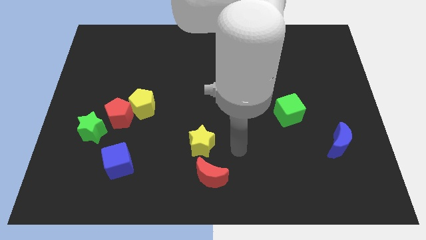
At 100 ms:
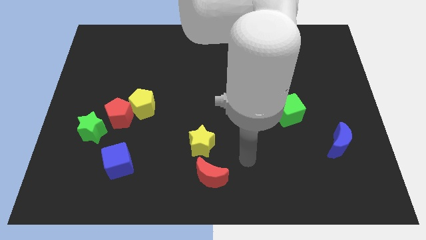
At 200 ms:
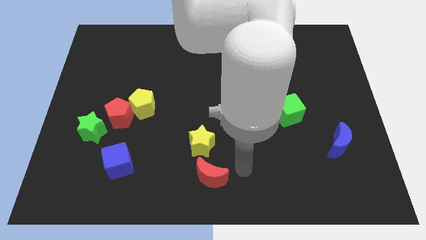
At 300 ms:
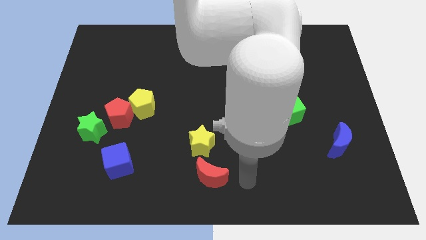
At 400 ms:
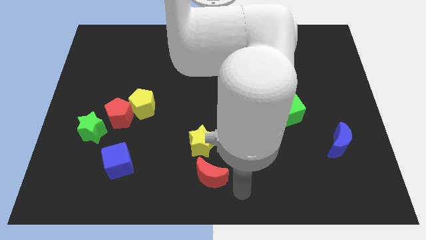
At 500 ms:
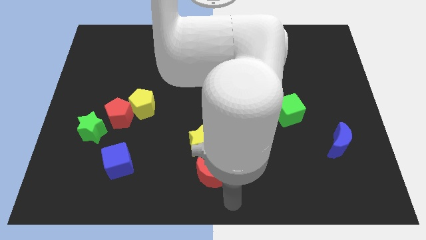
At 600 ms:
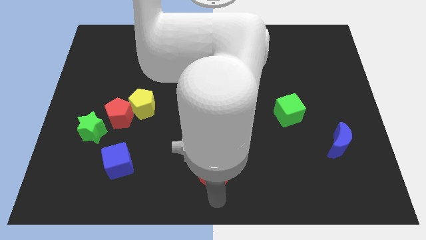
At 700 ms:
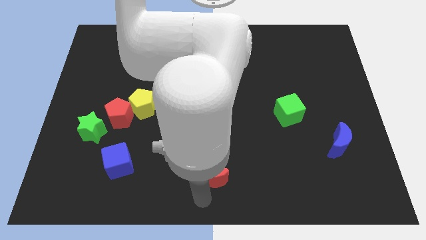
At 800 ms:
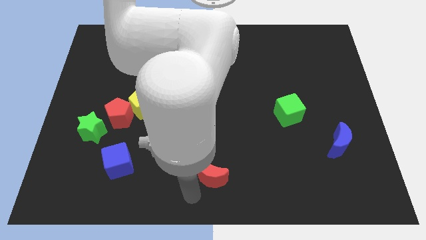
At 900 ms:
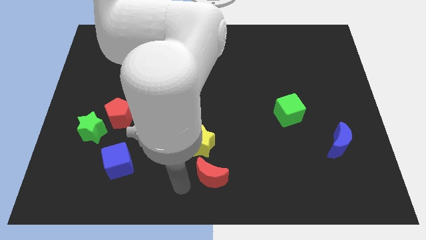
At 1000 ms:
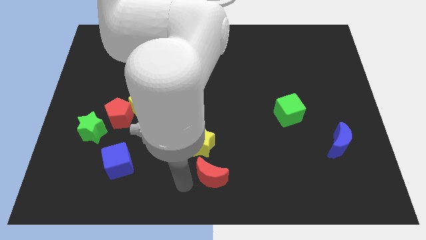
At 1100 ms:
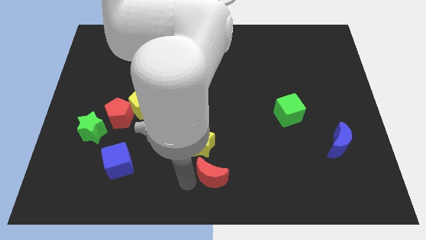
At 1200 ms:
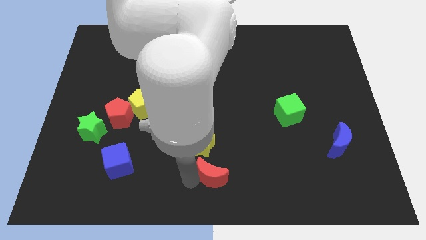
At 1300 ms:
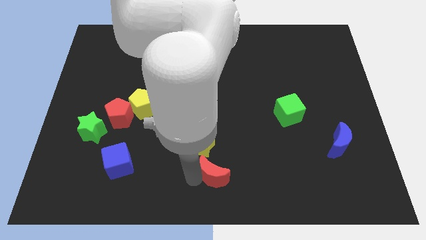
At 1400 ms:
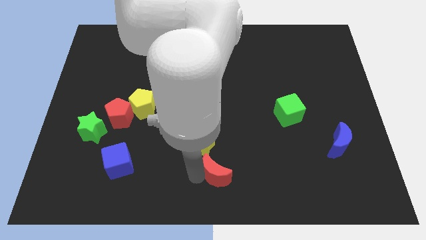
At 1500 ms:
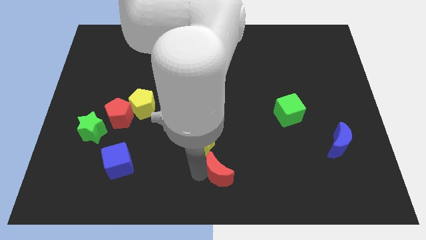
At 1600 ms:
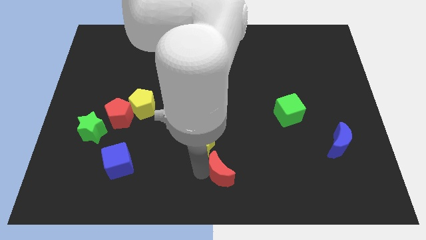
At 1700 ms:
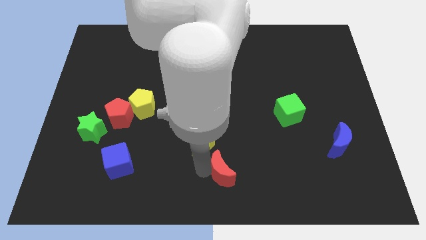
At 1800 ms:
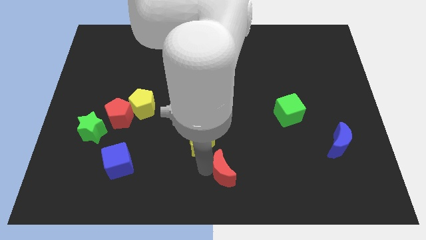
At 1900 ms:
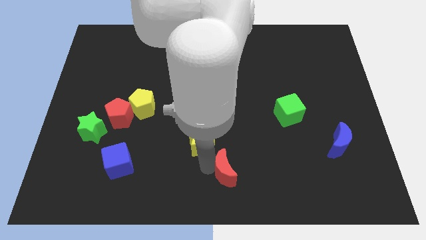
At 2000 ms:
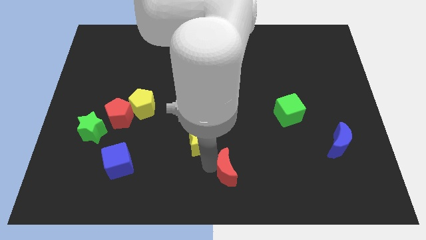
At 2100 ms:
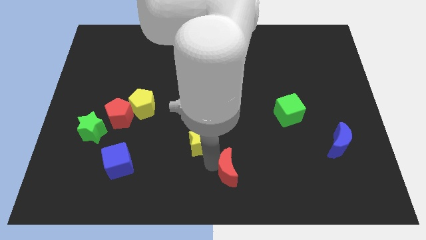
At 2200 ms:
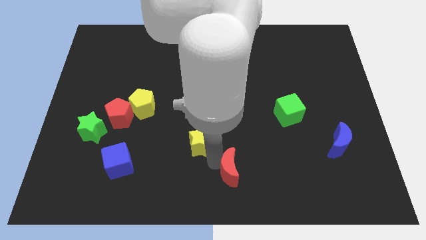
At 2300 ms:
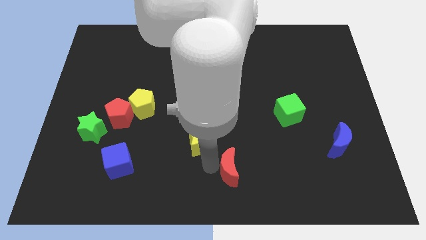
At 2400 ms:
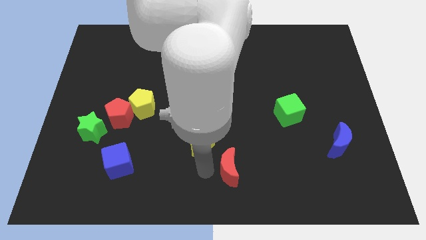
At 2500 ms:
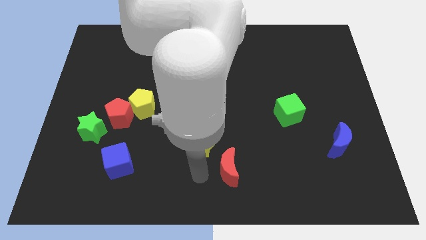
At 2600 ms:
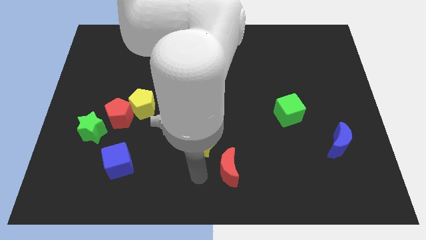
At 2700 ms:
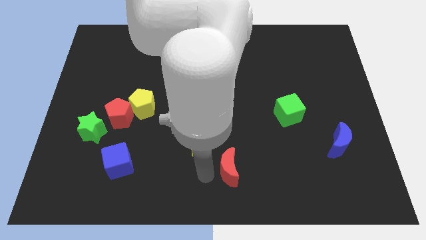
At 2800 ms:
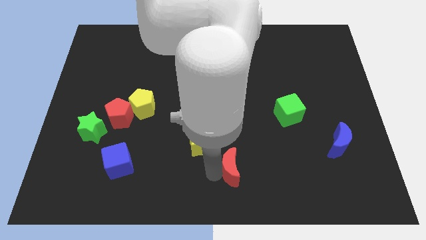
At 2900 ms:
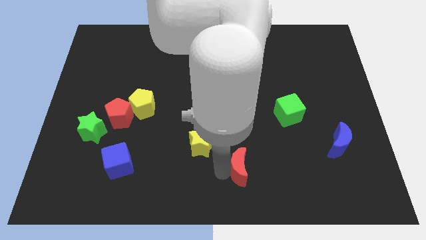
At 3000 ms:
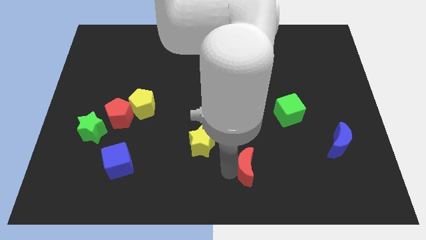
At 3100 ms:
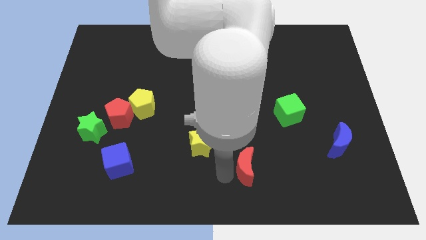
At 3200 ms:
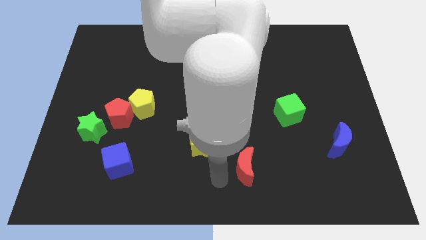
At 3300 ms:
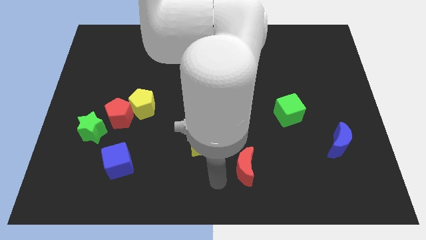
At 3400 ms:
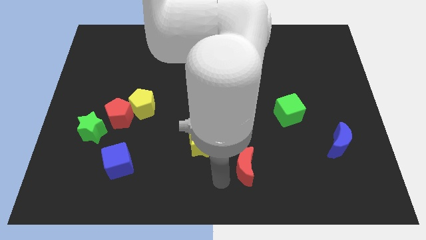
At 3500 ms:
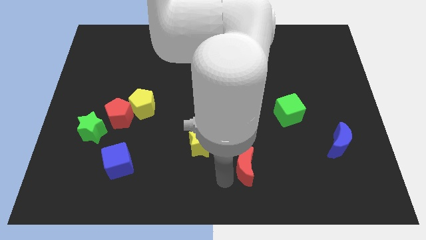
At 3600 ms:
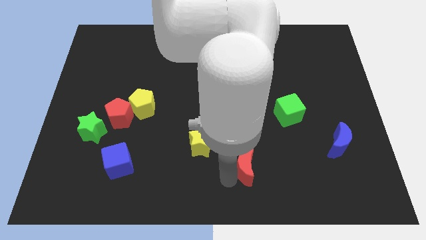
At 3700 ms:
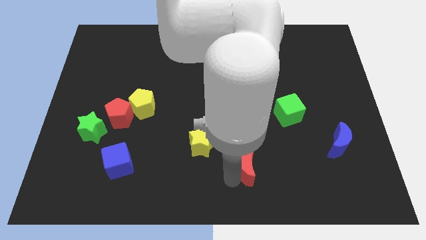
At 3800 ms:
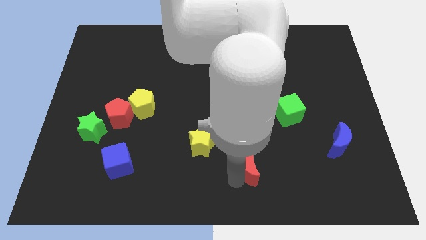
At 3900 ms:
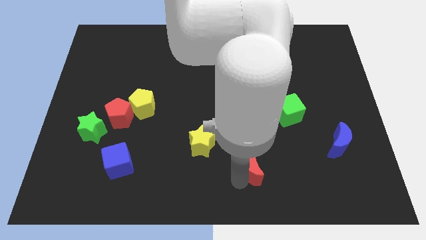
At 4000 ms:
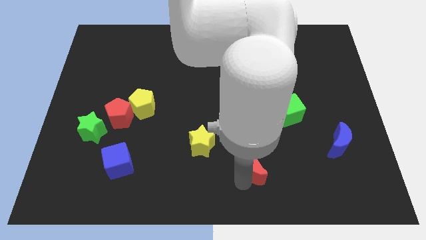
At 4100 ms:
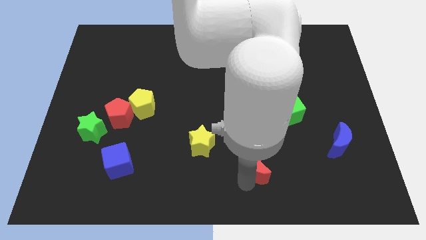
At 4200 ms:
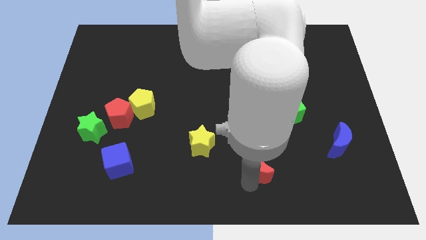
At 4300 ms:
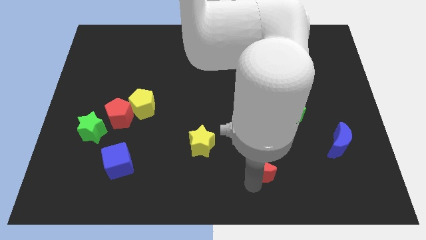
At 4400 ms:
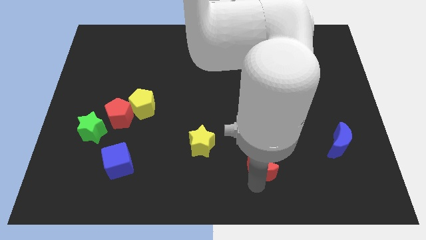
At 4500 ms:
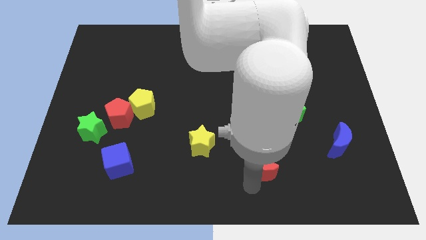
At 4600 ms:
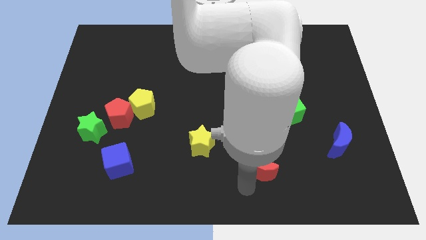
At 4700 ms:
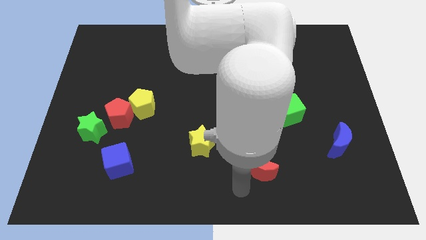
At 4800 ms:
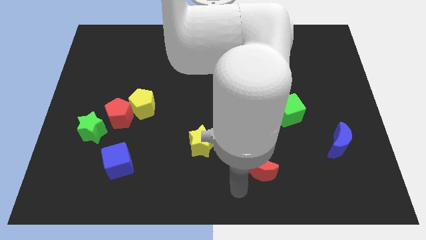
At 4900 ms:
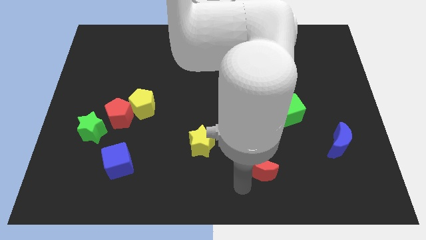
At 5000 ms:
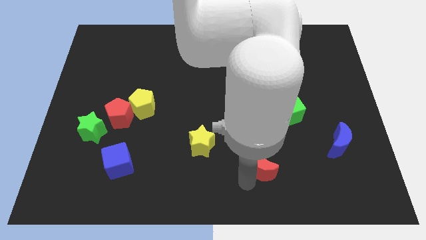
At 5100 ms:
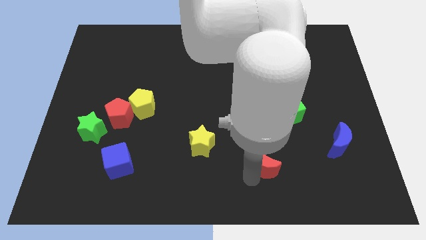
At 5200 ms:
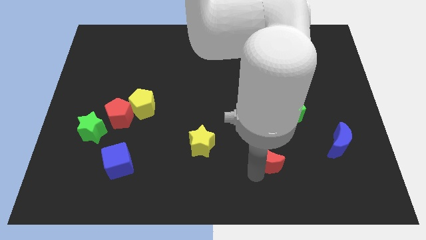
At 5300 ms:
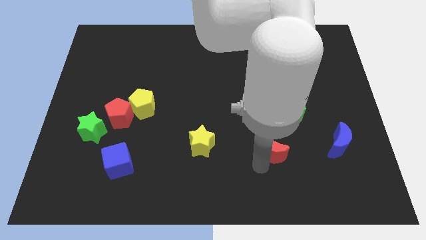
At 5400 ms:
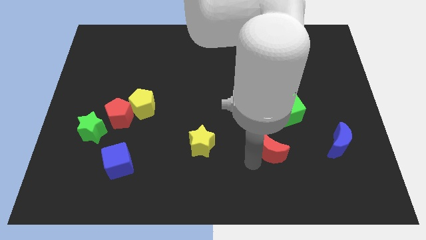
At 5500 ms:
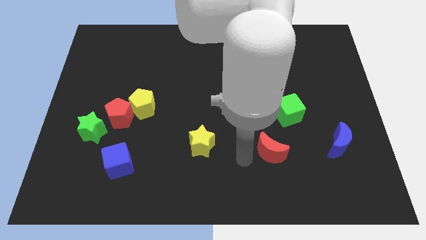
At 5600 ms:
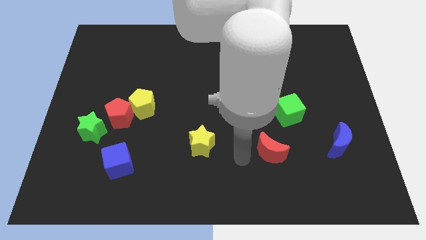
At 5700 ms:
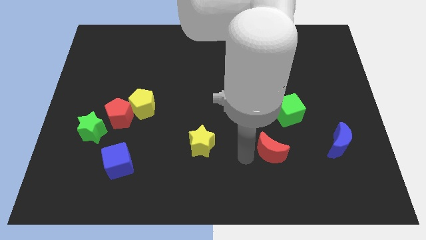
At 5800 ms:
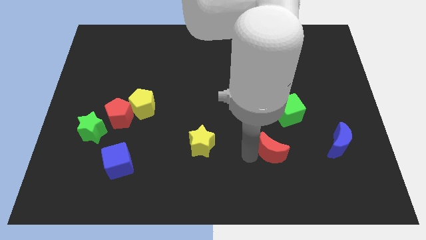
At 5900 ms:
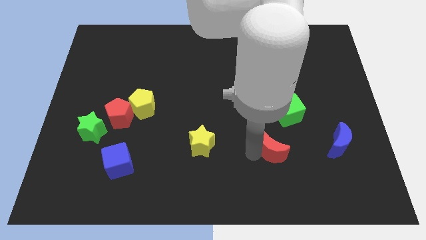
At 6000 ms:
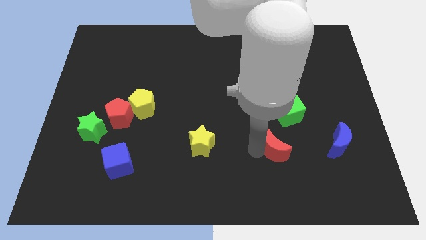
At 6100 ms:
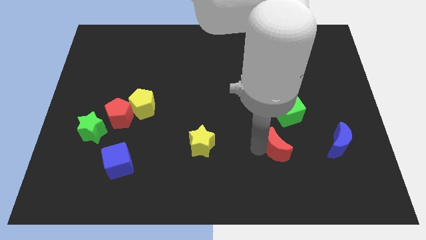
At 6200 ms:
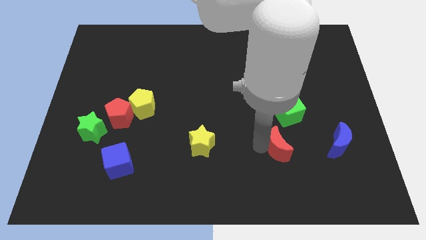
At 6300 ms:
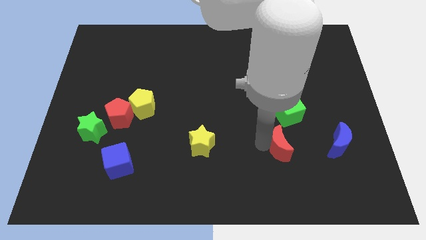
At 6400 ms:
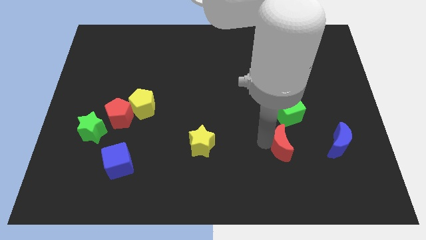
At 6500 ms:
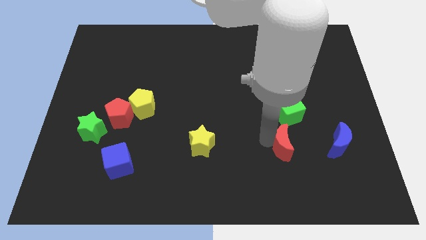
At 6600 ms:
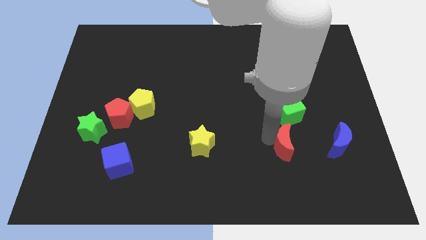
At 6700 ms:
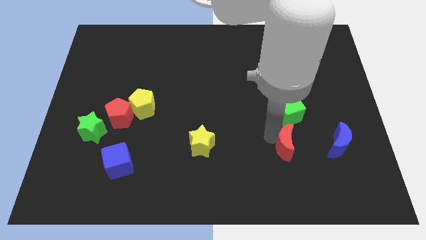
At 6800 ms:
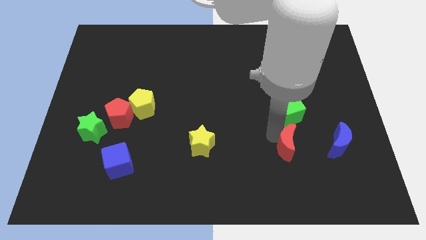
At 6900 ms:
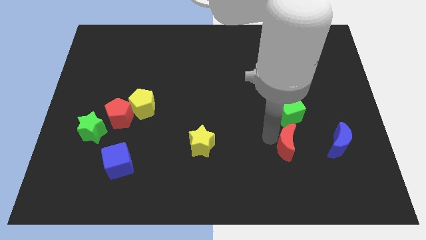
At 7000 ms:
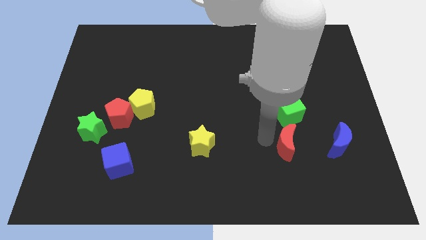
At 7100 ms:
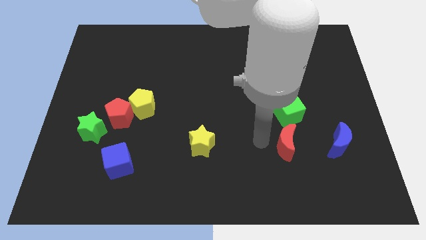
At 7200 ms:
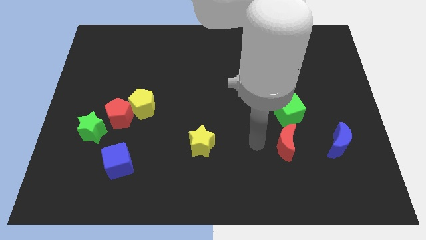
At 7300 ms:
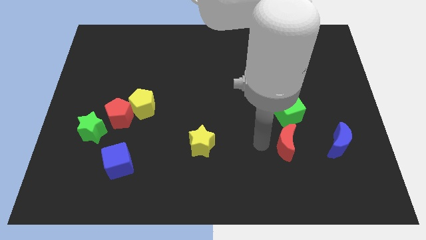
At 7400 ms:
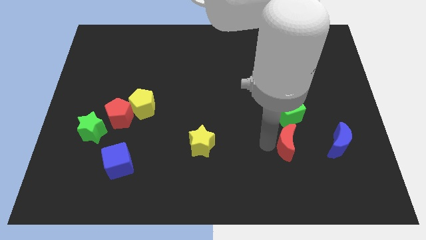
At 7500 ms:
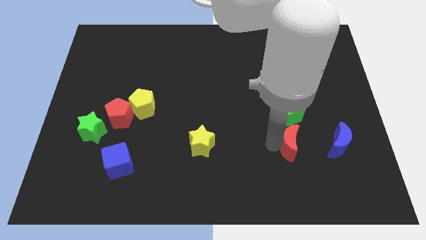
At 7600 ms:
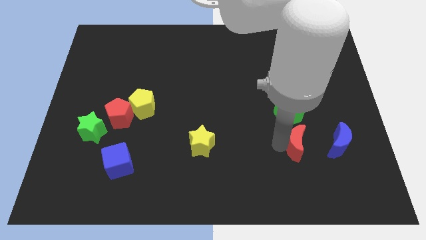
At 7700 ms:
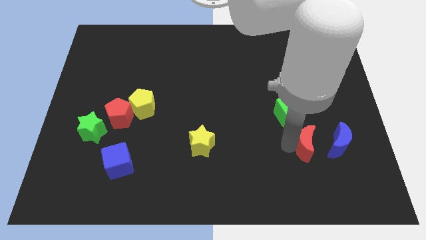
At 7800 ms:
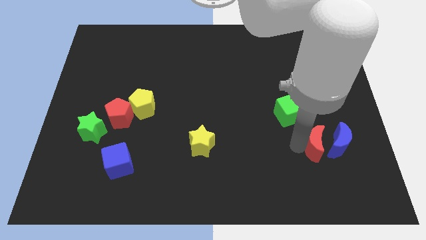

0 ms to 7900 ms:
move the red moon close to the blue moon

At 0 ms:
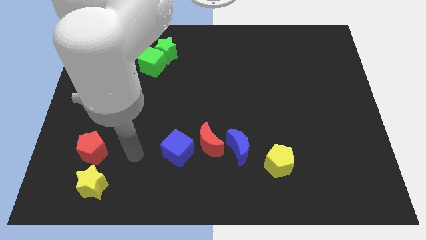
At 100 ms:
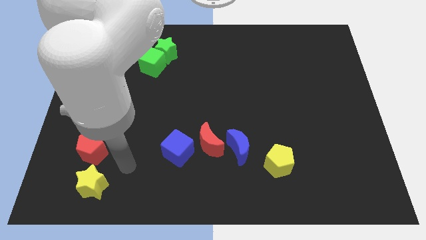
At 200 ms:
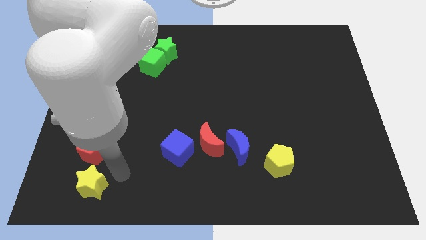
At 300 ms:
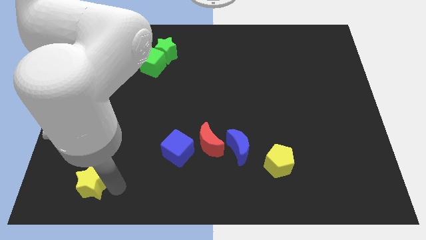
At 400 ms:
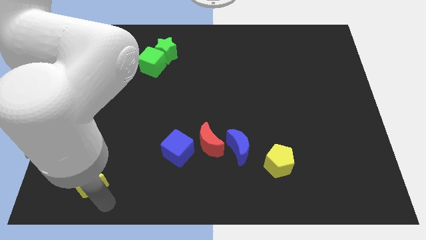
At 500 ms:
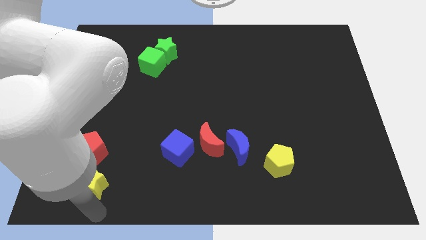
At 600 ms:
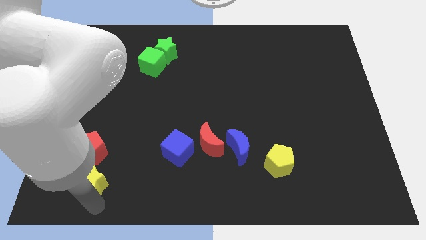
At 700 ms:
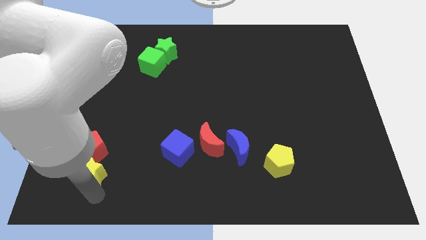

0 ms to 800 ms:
put the yellow star close to the red pentagon

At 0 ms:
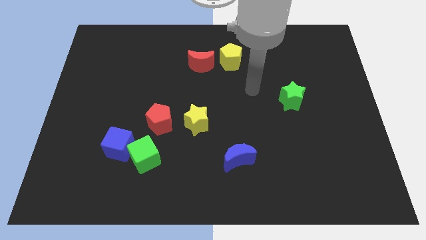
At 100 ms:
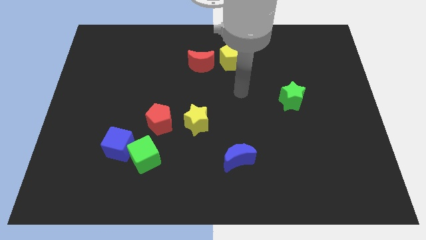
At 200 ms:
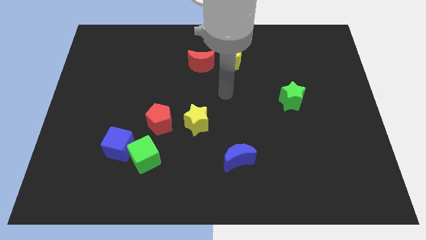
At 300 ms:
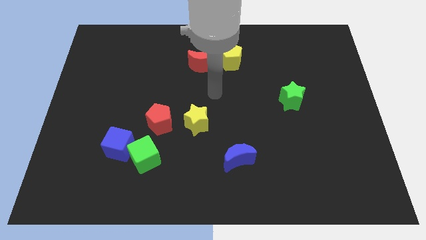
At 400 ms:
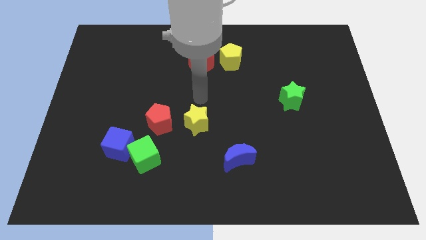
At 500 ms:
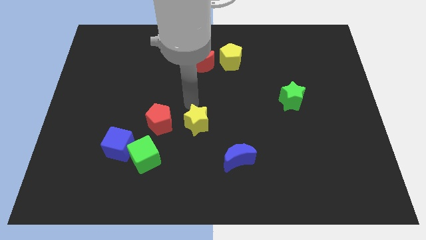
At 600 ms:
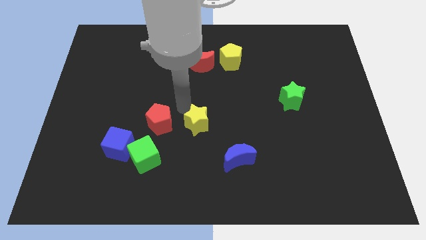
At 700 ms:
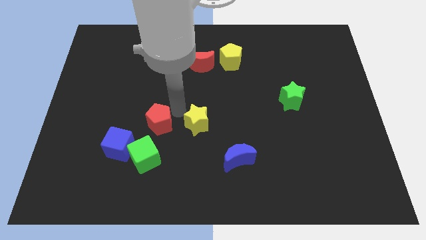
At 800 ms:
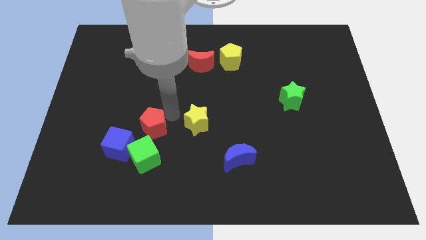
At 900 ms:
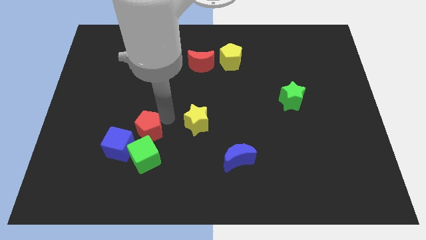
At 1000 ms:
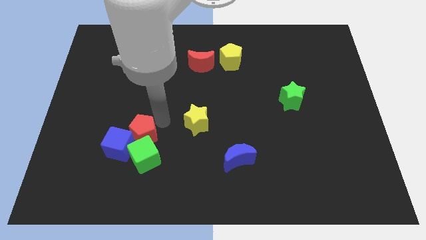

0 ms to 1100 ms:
move the red pentagon close to the blue cube
